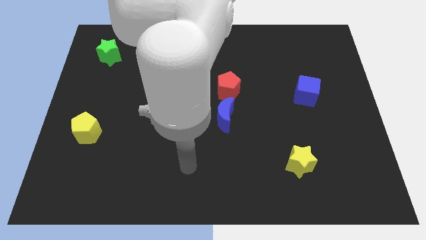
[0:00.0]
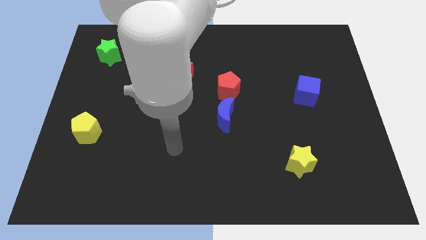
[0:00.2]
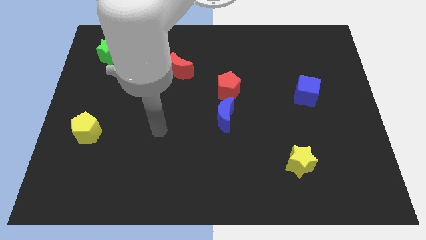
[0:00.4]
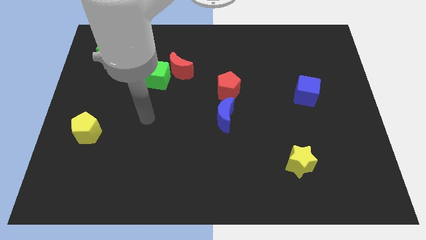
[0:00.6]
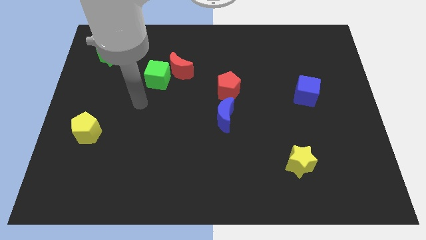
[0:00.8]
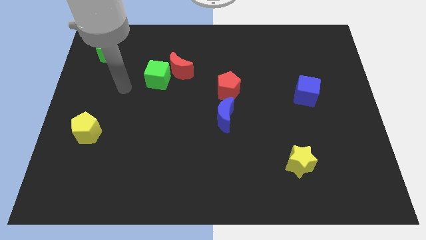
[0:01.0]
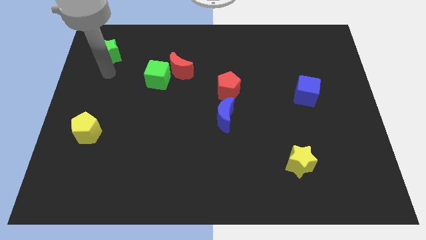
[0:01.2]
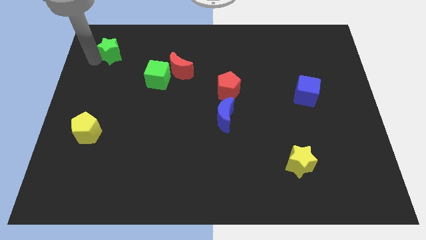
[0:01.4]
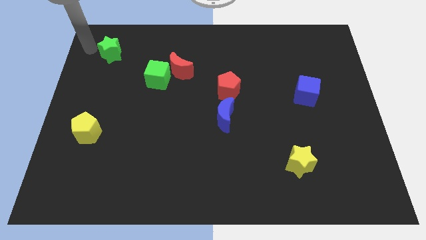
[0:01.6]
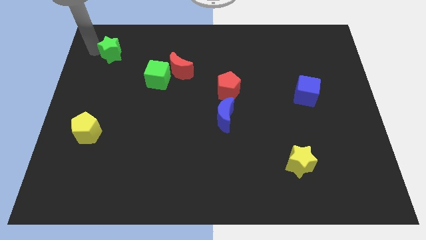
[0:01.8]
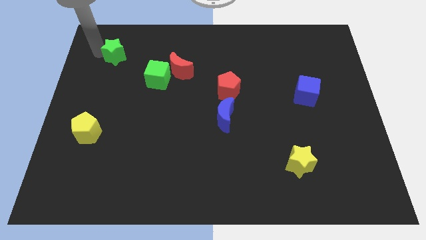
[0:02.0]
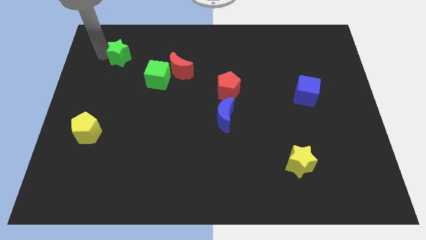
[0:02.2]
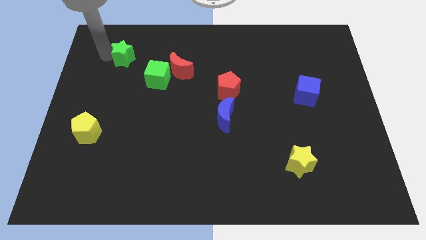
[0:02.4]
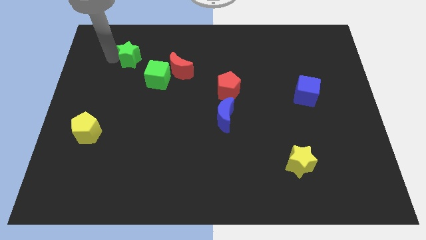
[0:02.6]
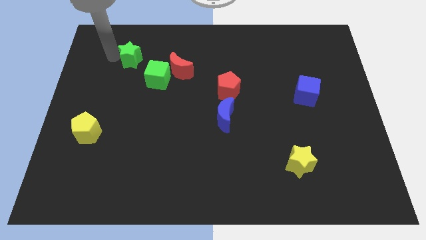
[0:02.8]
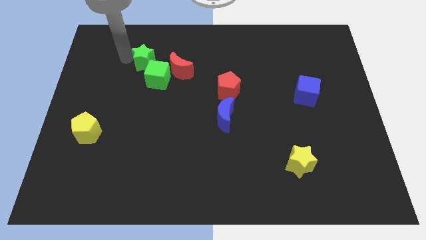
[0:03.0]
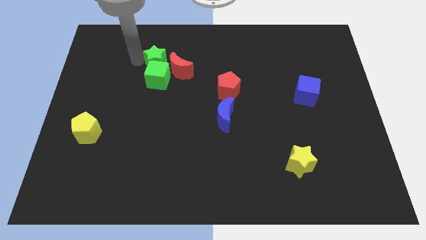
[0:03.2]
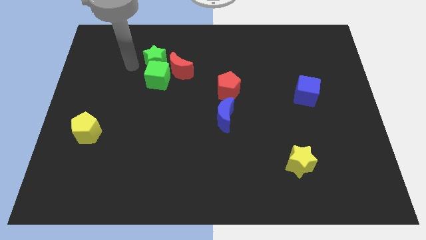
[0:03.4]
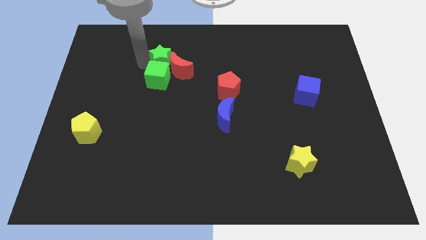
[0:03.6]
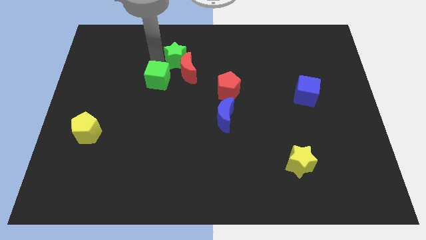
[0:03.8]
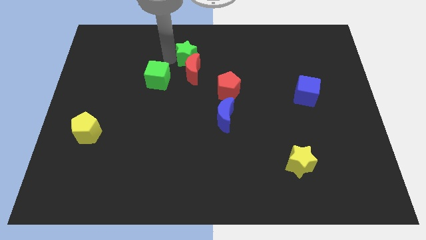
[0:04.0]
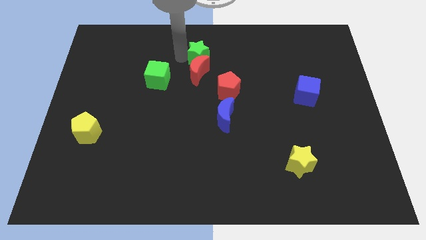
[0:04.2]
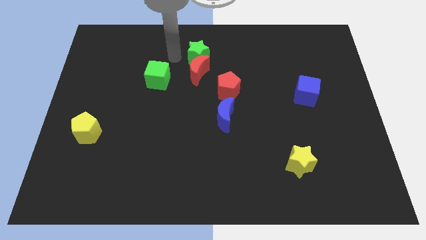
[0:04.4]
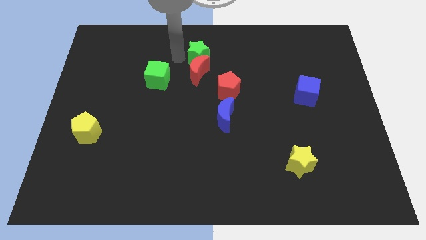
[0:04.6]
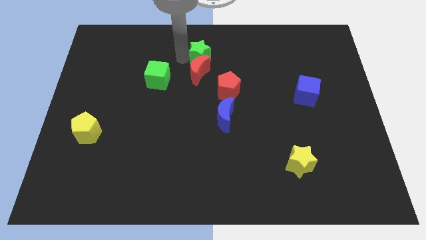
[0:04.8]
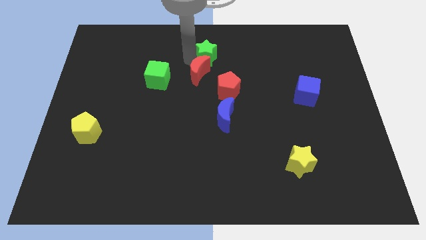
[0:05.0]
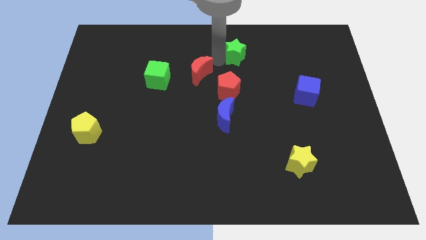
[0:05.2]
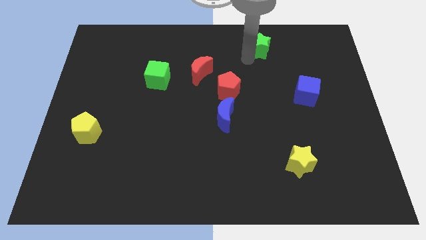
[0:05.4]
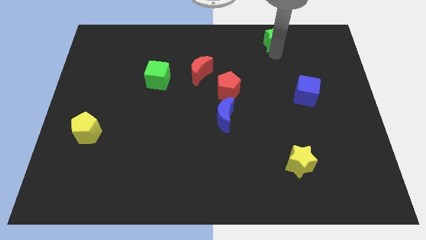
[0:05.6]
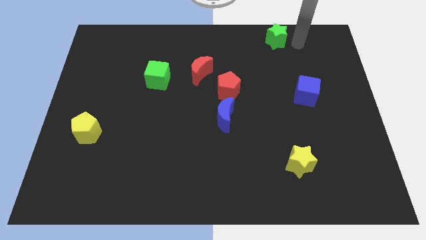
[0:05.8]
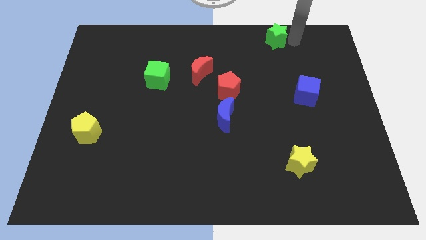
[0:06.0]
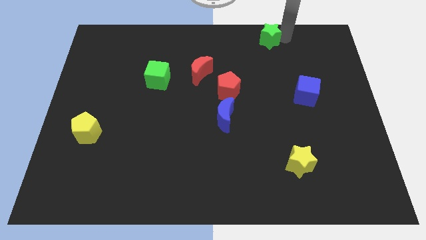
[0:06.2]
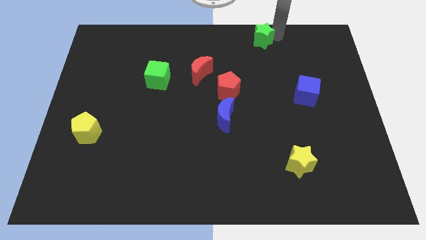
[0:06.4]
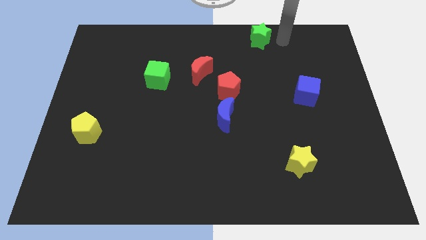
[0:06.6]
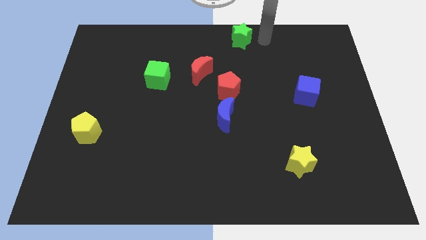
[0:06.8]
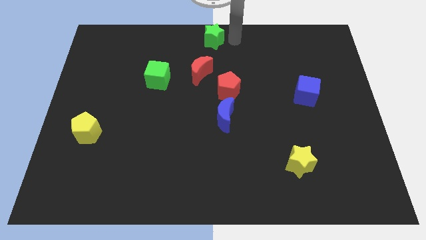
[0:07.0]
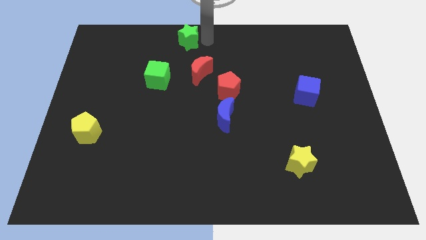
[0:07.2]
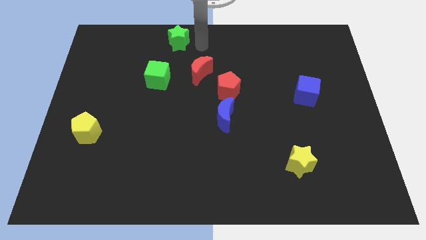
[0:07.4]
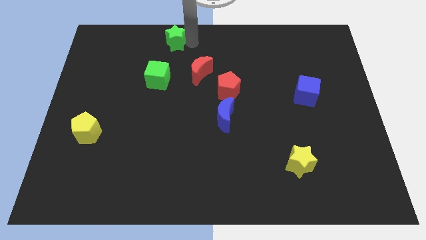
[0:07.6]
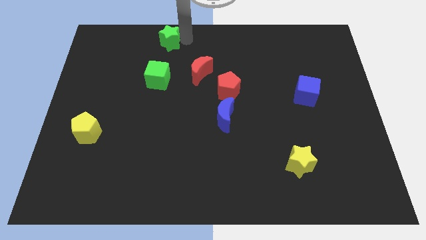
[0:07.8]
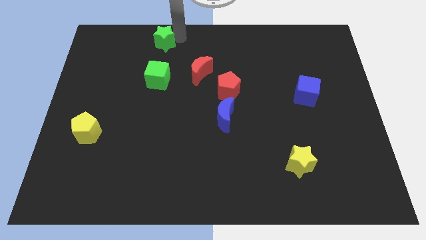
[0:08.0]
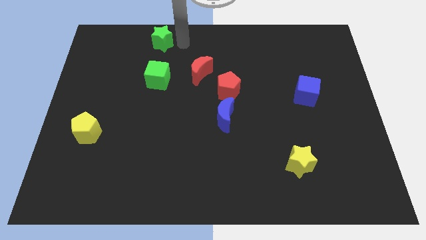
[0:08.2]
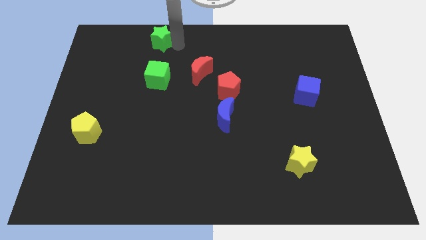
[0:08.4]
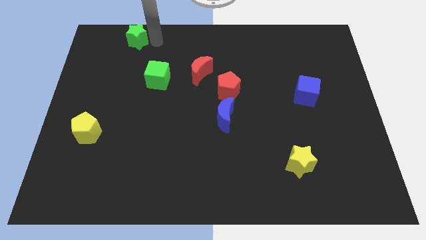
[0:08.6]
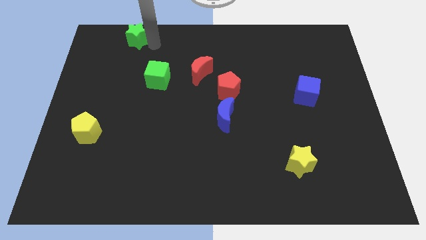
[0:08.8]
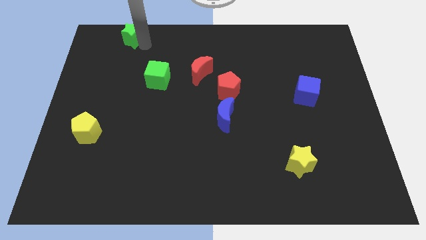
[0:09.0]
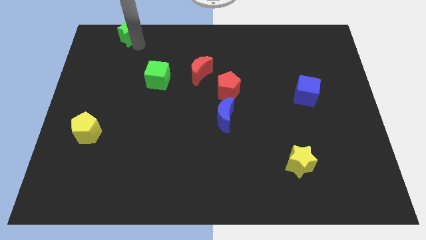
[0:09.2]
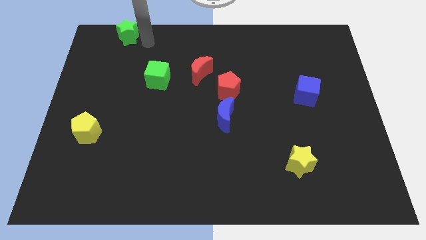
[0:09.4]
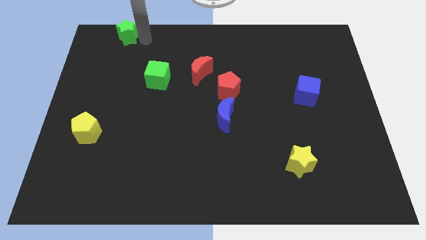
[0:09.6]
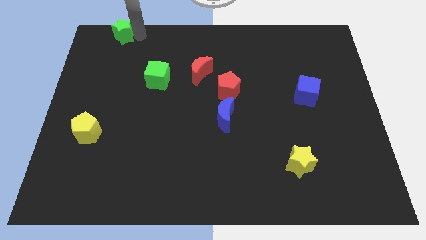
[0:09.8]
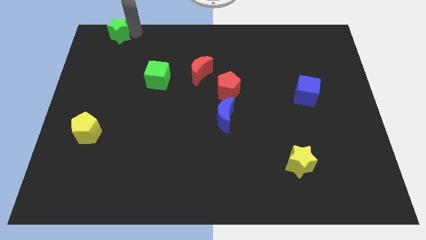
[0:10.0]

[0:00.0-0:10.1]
put the green star to the top left

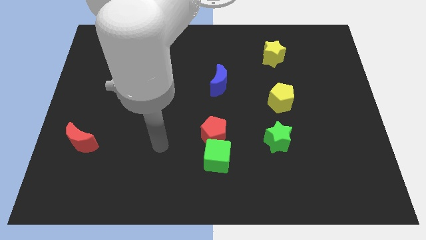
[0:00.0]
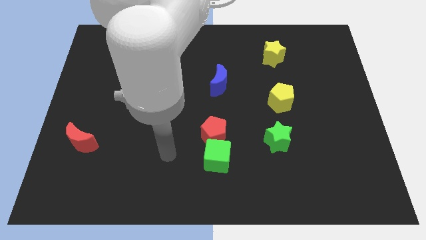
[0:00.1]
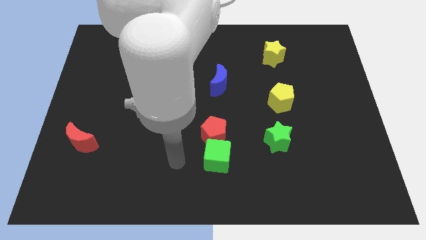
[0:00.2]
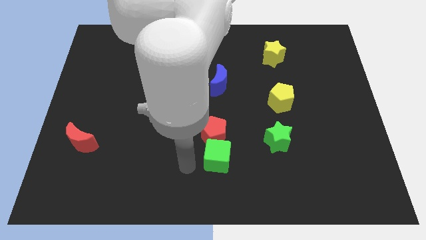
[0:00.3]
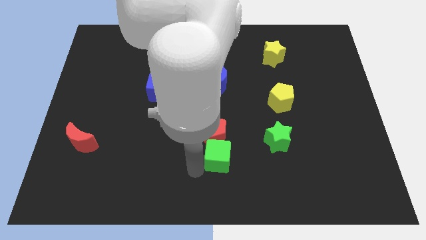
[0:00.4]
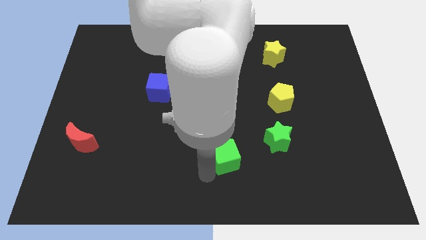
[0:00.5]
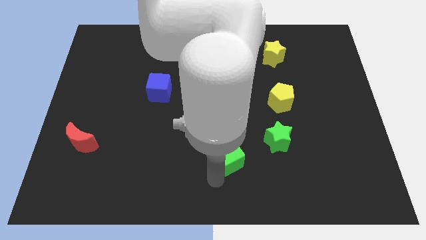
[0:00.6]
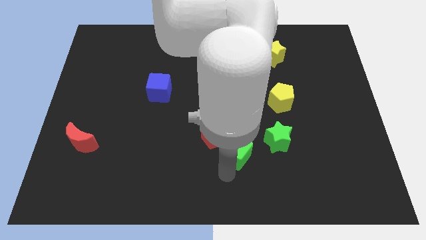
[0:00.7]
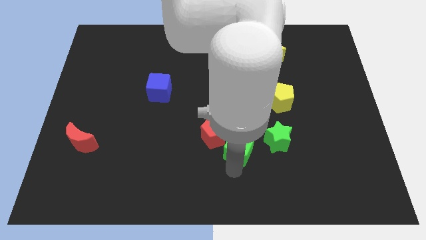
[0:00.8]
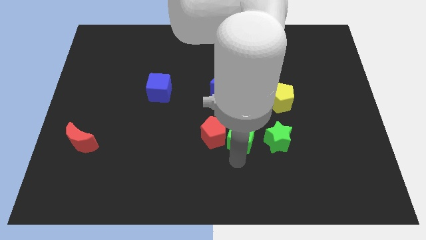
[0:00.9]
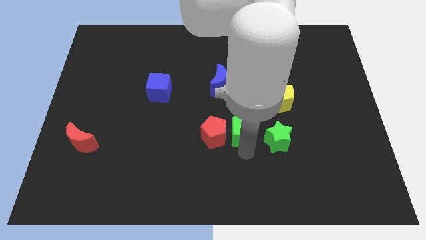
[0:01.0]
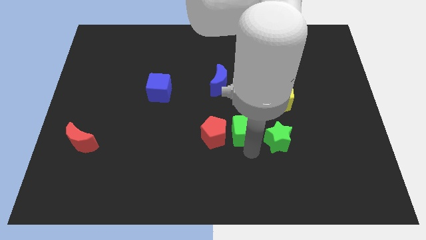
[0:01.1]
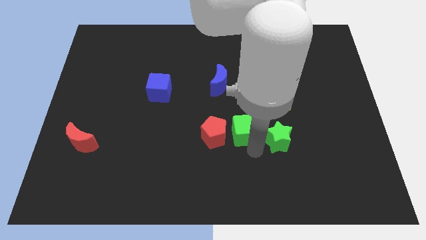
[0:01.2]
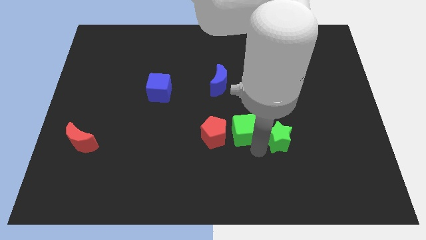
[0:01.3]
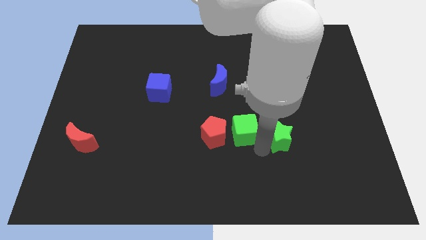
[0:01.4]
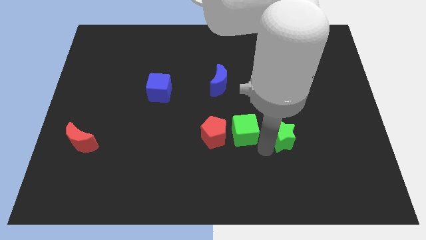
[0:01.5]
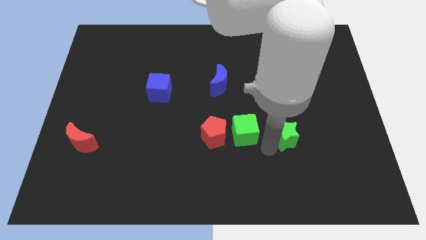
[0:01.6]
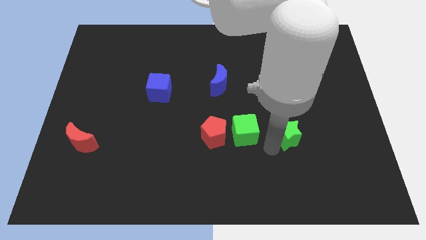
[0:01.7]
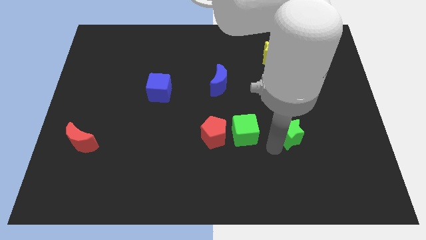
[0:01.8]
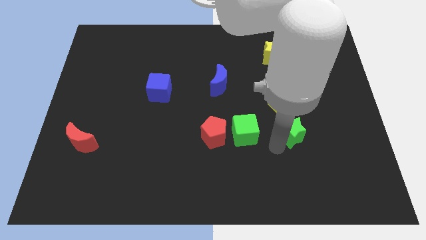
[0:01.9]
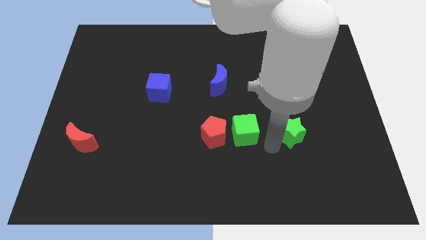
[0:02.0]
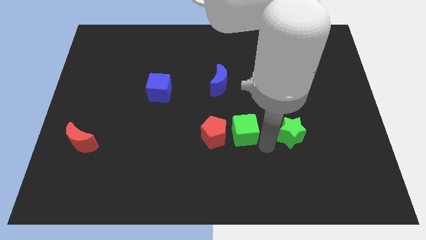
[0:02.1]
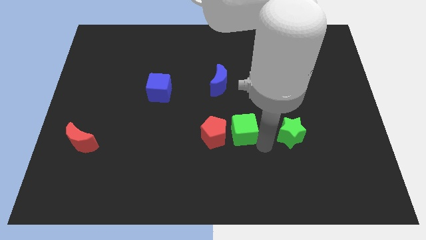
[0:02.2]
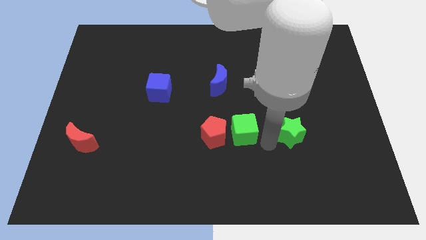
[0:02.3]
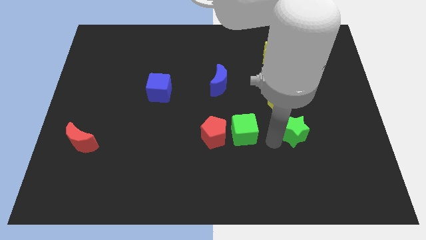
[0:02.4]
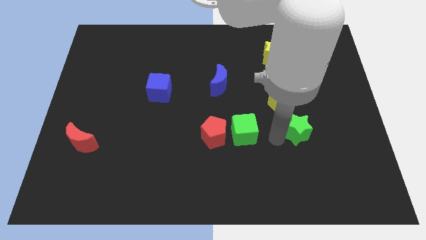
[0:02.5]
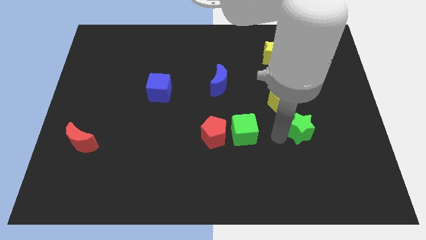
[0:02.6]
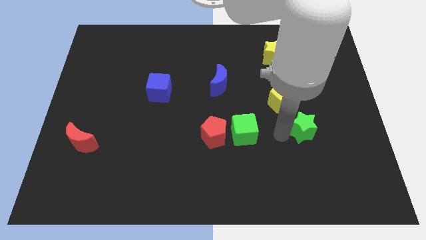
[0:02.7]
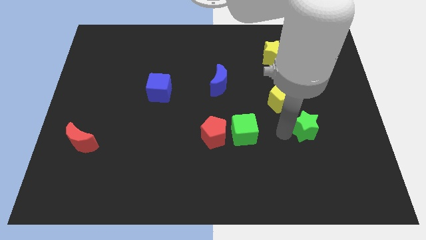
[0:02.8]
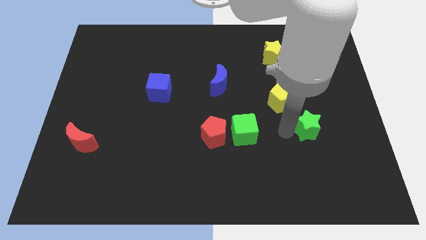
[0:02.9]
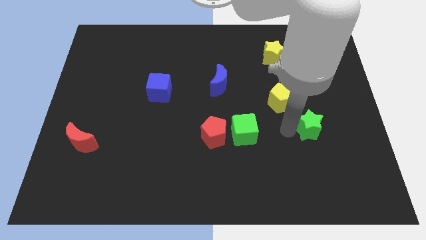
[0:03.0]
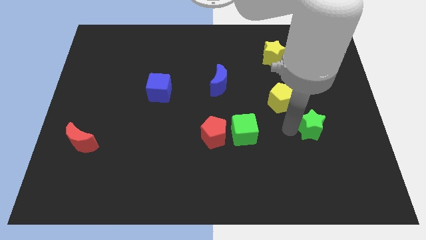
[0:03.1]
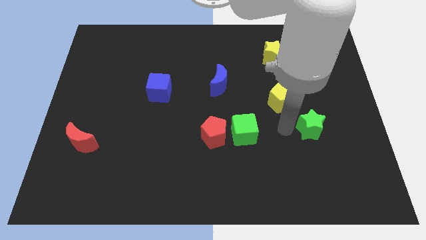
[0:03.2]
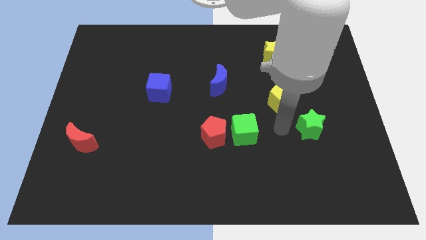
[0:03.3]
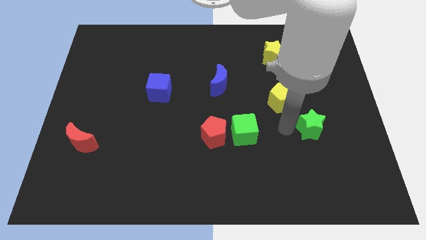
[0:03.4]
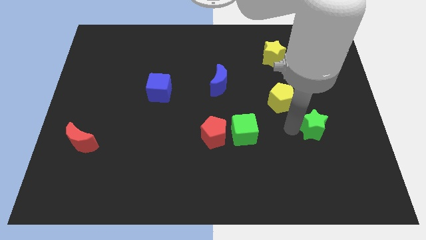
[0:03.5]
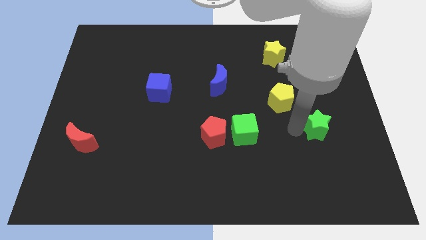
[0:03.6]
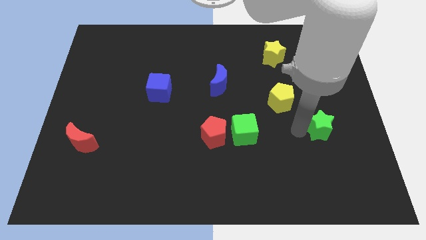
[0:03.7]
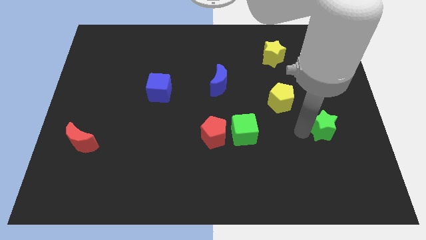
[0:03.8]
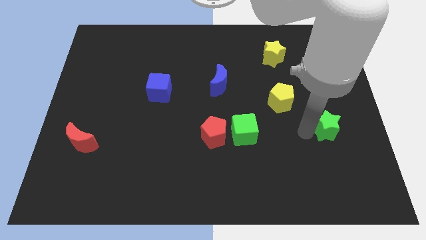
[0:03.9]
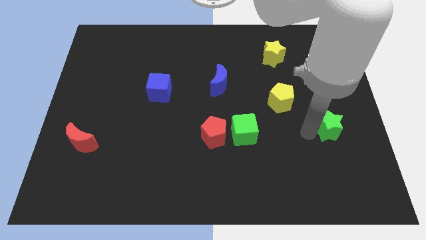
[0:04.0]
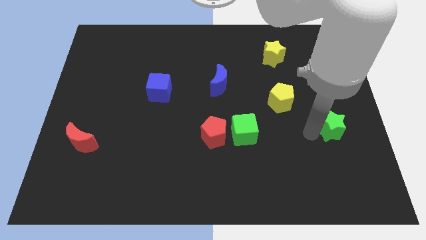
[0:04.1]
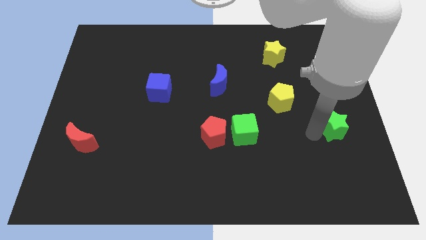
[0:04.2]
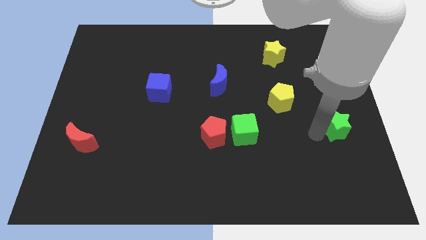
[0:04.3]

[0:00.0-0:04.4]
move the green star to the right side of the board
